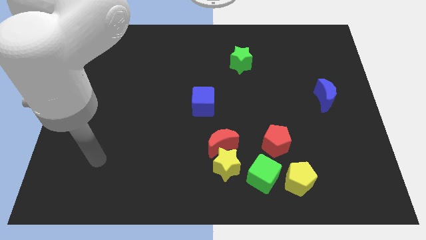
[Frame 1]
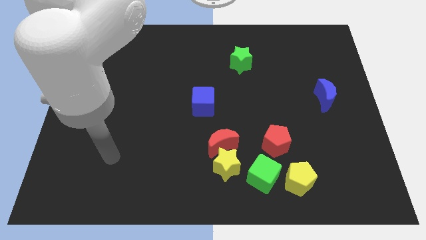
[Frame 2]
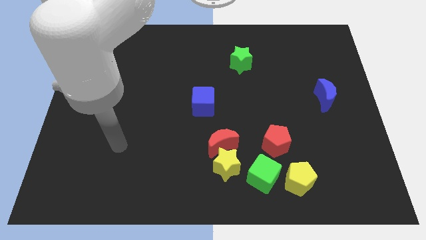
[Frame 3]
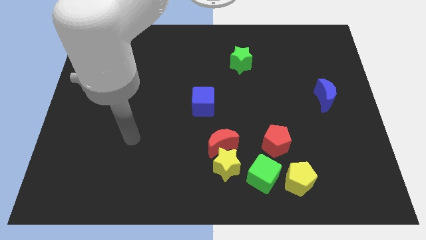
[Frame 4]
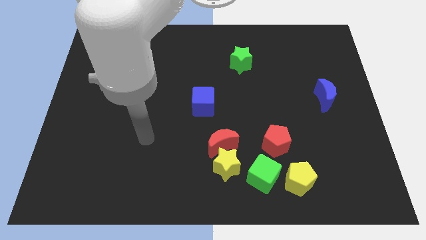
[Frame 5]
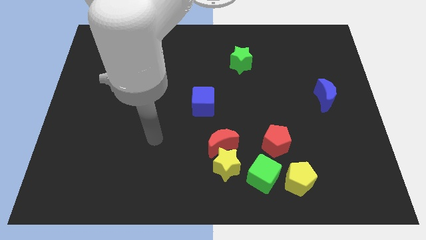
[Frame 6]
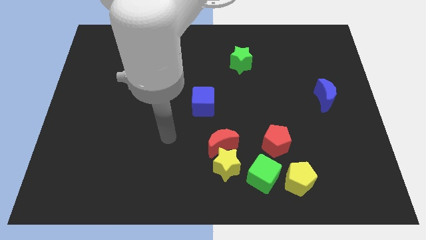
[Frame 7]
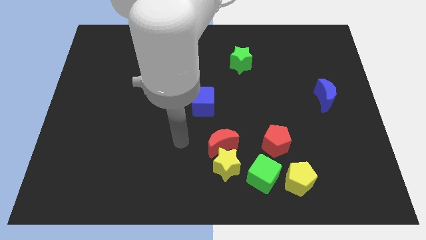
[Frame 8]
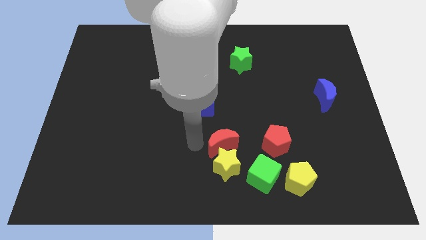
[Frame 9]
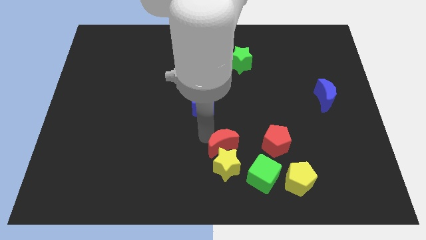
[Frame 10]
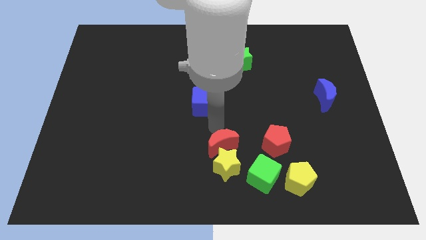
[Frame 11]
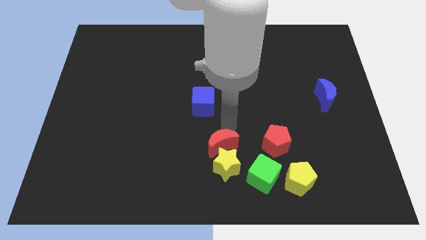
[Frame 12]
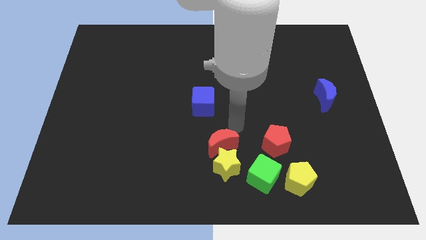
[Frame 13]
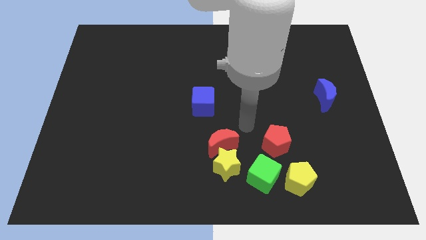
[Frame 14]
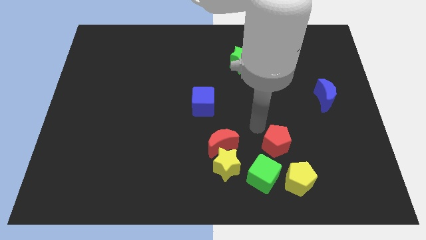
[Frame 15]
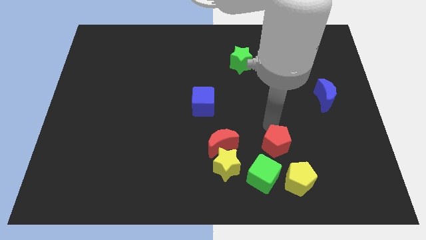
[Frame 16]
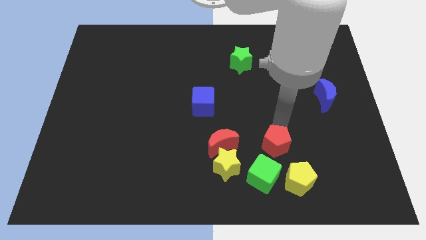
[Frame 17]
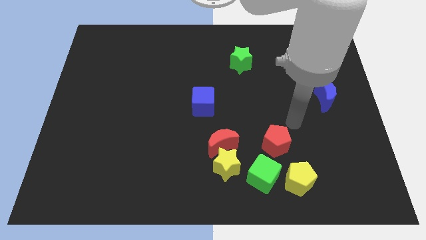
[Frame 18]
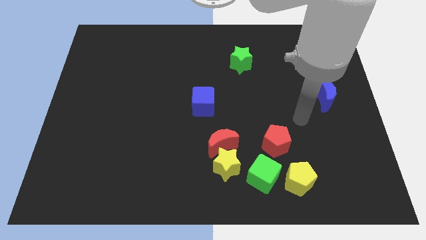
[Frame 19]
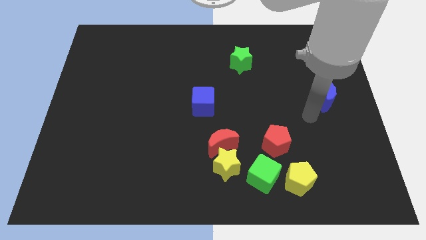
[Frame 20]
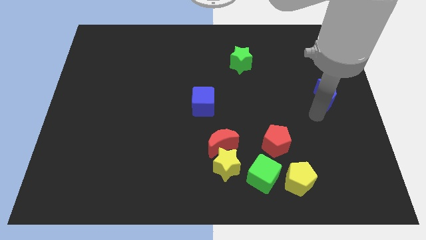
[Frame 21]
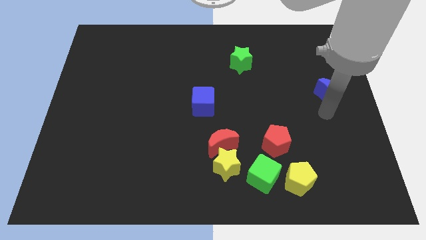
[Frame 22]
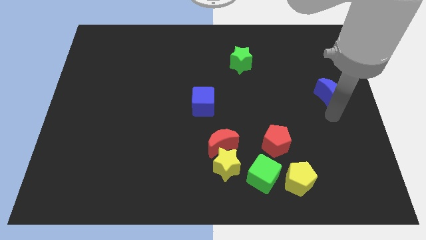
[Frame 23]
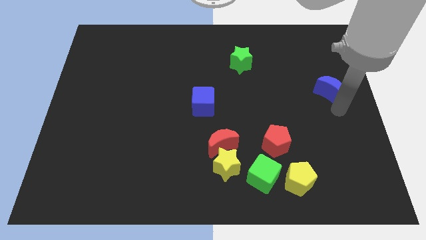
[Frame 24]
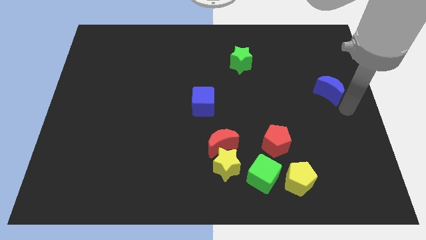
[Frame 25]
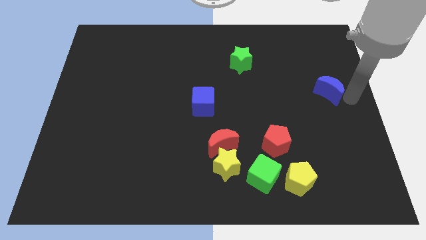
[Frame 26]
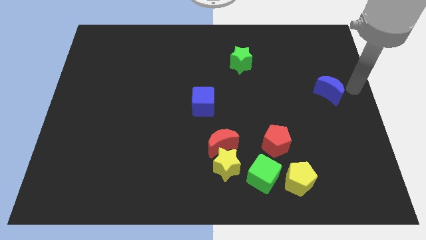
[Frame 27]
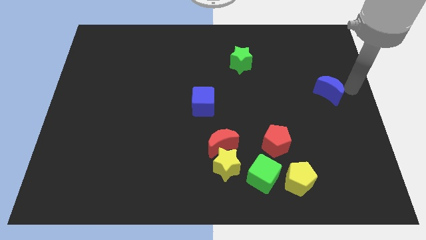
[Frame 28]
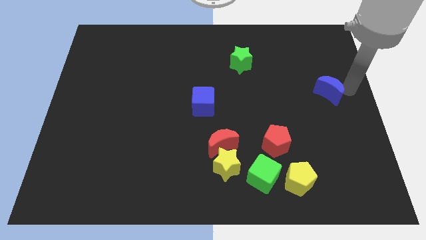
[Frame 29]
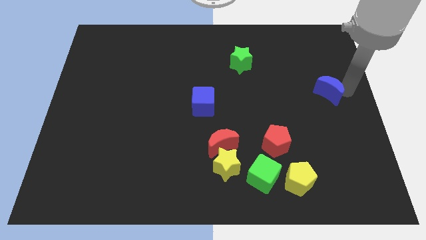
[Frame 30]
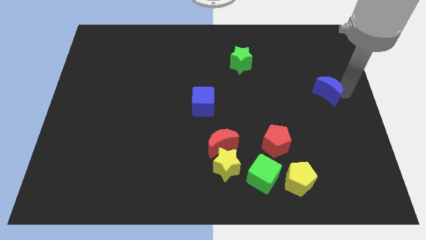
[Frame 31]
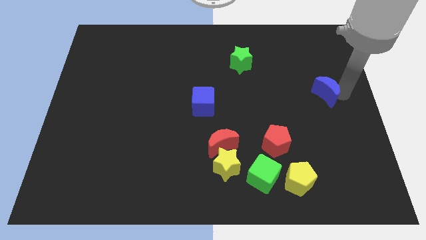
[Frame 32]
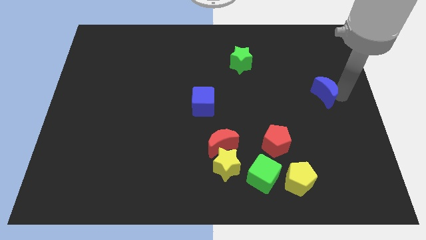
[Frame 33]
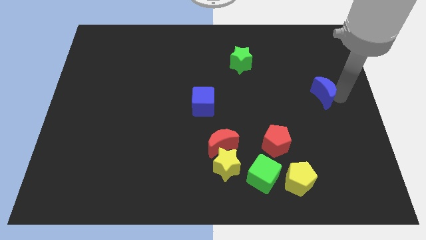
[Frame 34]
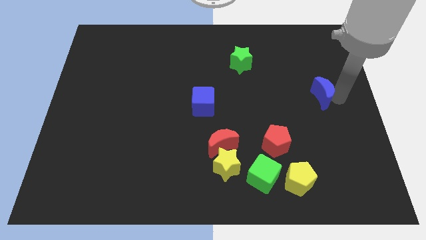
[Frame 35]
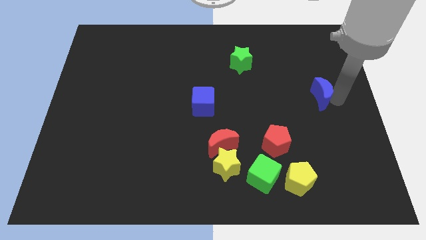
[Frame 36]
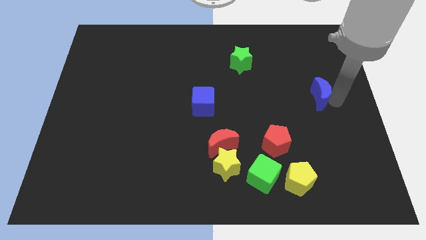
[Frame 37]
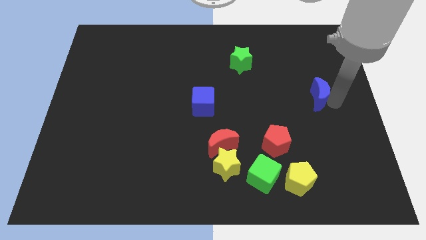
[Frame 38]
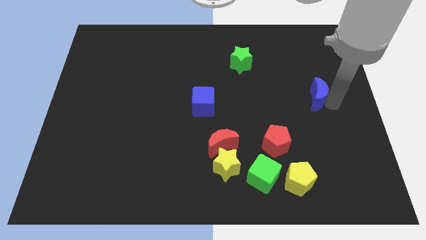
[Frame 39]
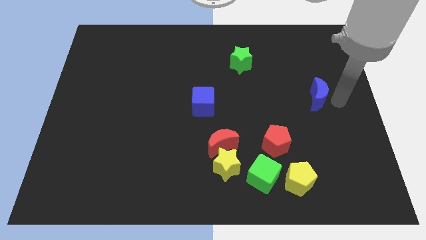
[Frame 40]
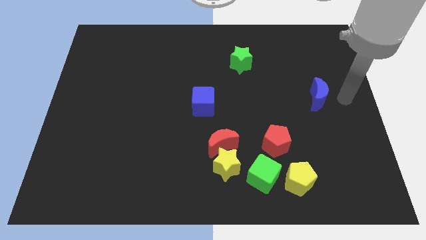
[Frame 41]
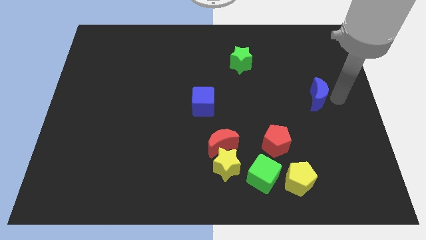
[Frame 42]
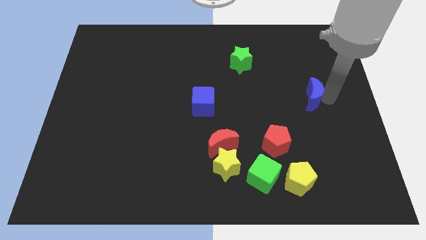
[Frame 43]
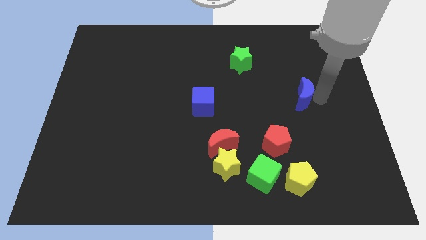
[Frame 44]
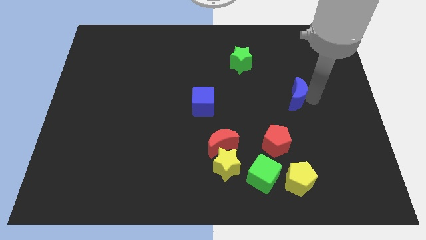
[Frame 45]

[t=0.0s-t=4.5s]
slightly move the blue moon to the left

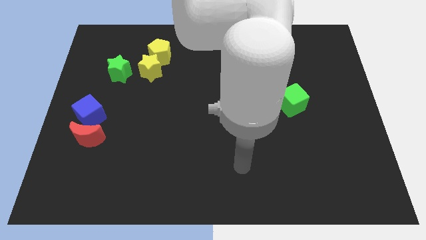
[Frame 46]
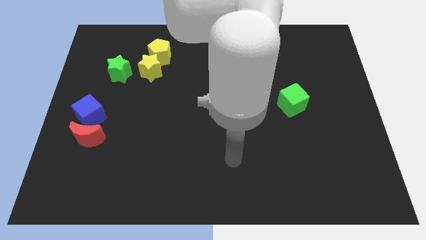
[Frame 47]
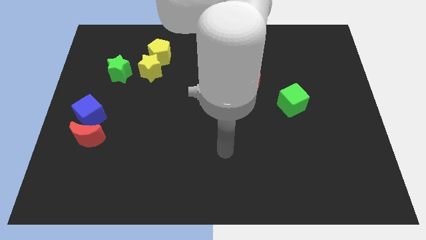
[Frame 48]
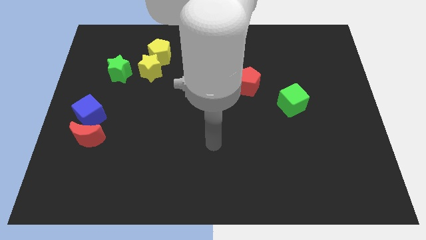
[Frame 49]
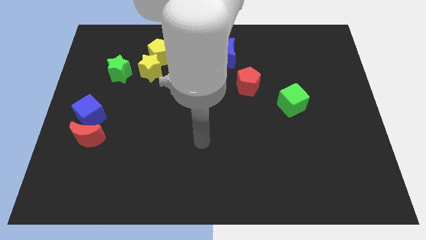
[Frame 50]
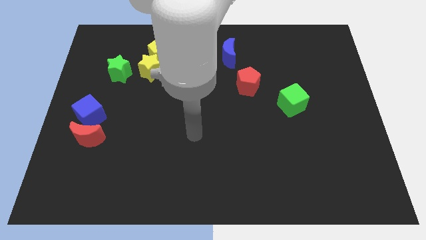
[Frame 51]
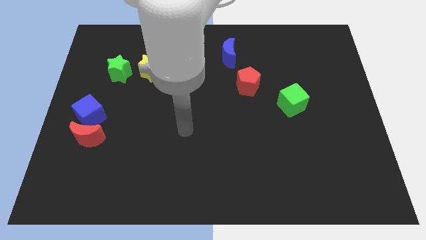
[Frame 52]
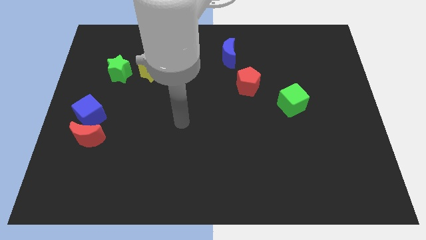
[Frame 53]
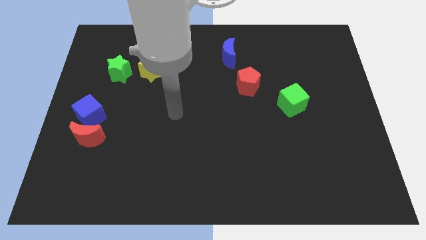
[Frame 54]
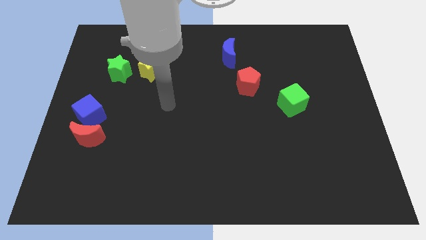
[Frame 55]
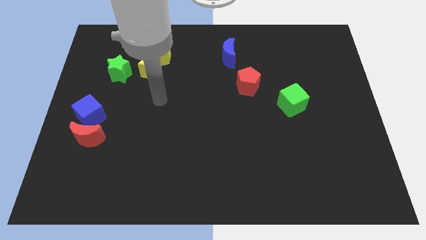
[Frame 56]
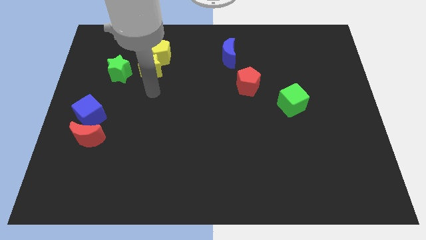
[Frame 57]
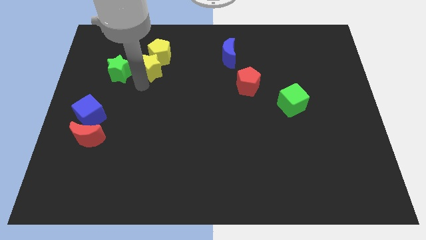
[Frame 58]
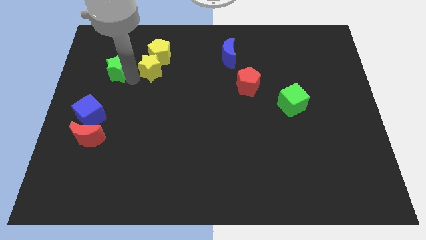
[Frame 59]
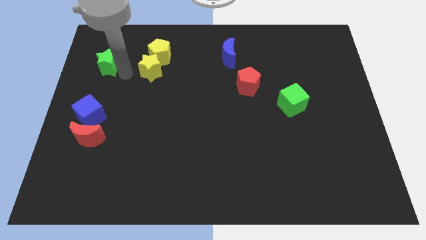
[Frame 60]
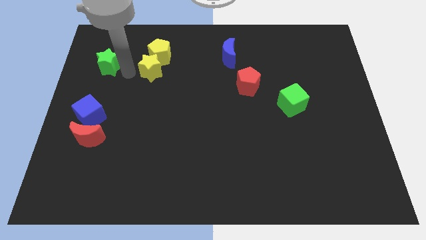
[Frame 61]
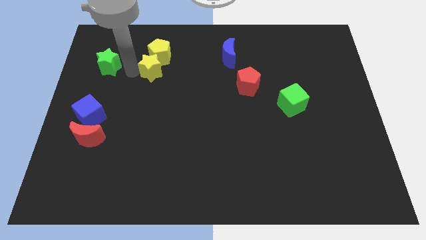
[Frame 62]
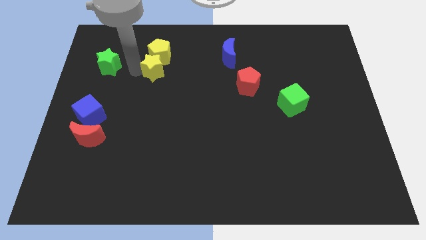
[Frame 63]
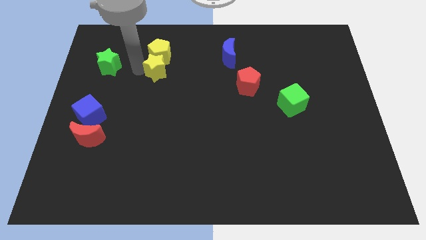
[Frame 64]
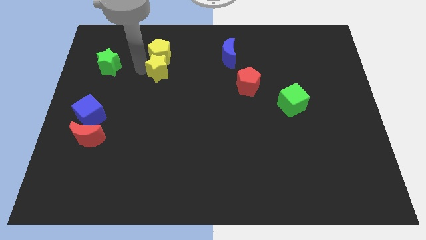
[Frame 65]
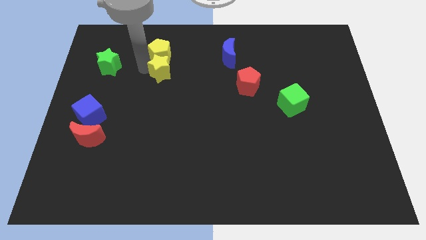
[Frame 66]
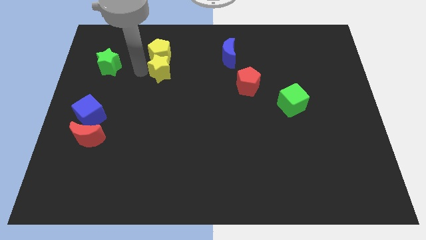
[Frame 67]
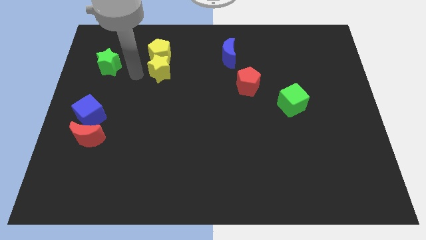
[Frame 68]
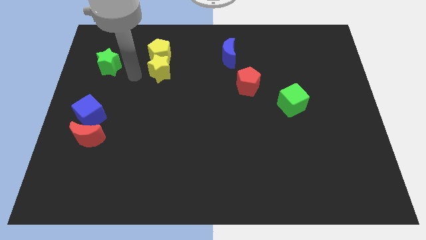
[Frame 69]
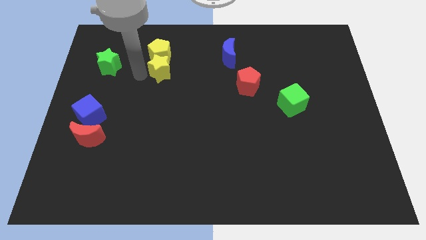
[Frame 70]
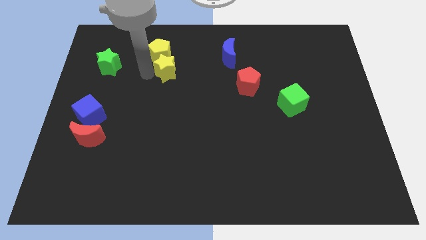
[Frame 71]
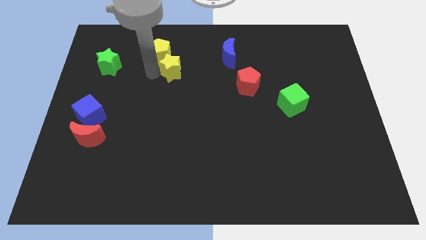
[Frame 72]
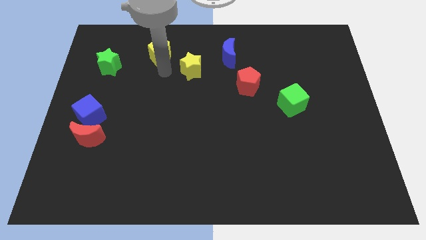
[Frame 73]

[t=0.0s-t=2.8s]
push the yellow star a little bit to the right

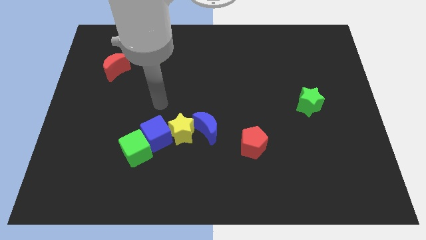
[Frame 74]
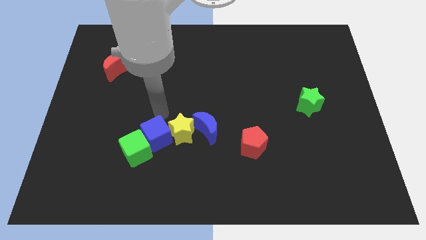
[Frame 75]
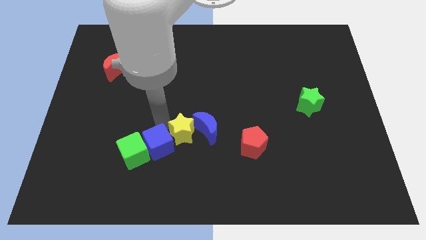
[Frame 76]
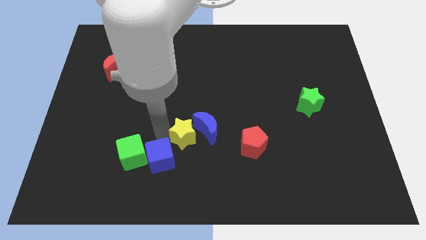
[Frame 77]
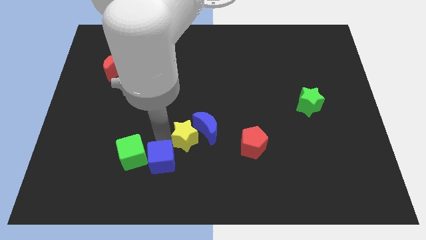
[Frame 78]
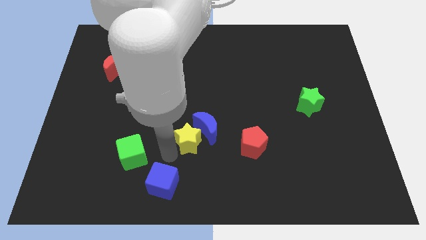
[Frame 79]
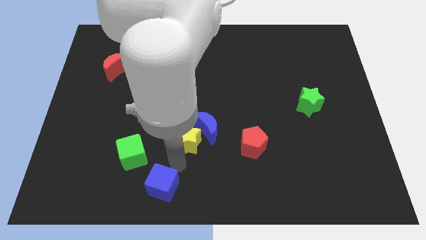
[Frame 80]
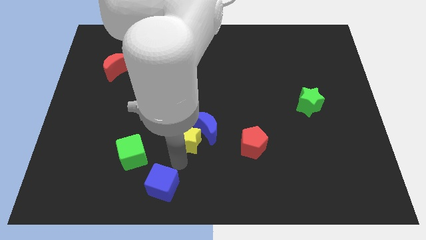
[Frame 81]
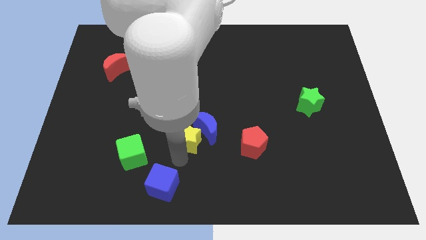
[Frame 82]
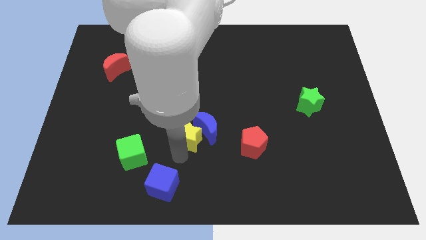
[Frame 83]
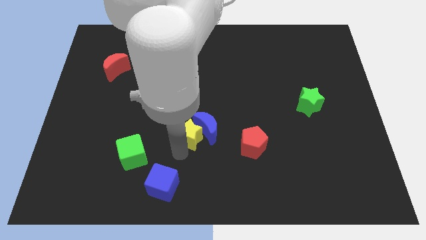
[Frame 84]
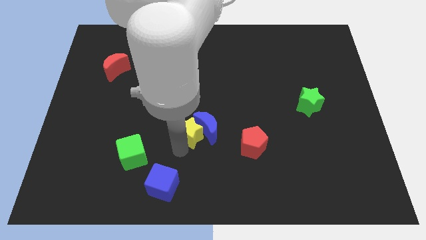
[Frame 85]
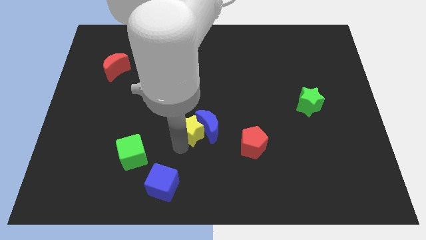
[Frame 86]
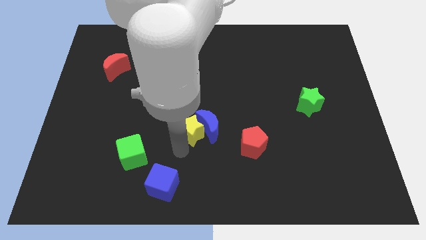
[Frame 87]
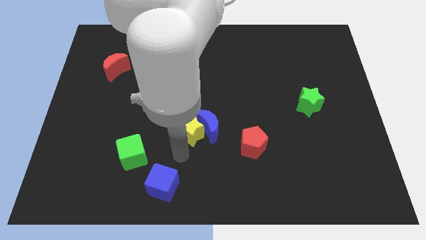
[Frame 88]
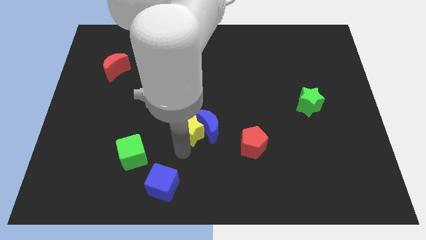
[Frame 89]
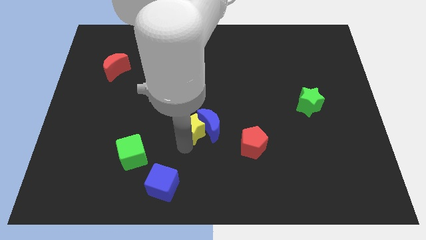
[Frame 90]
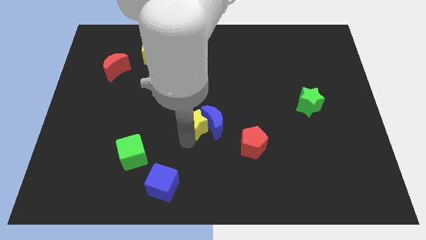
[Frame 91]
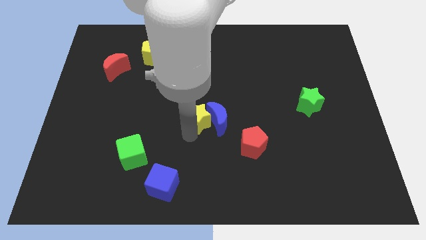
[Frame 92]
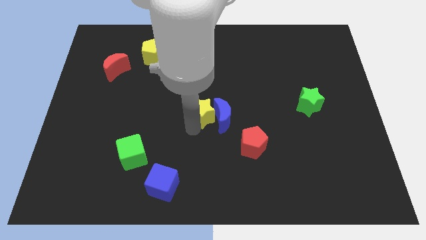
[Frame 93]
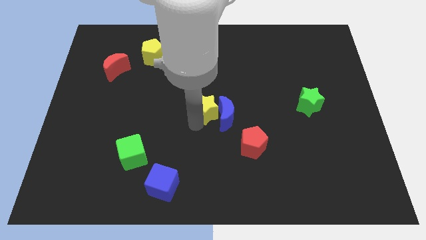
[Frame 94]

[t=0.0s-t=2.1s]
move the yellow star a little diagonally upwards and right
